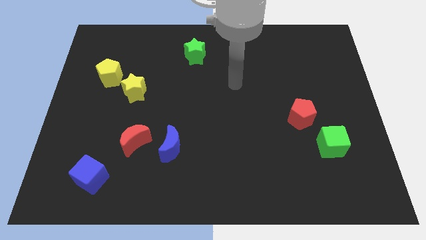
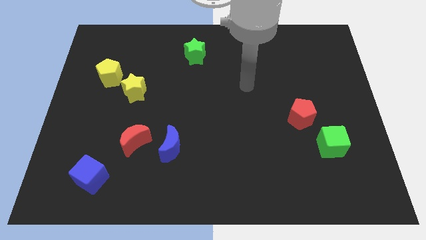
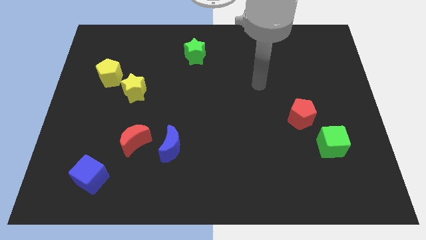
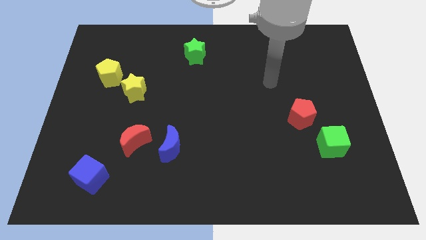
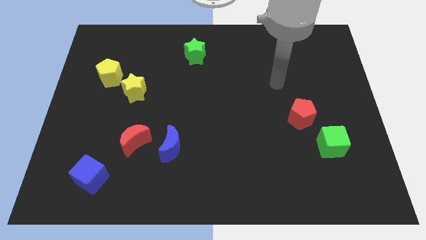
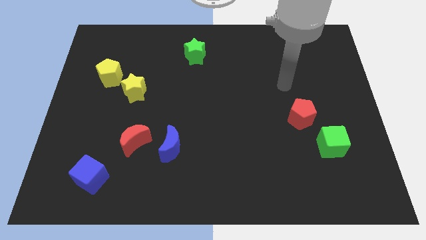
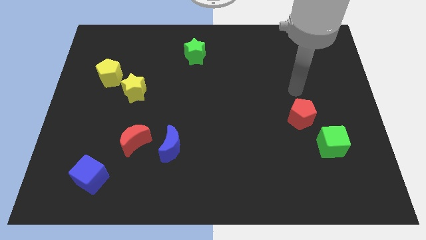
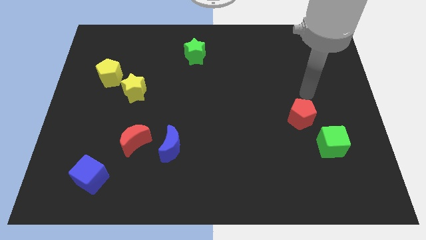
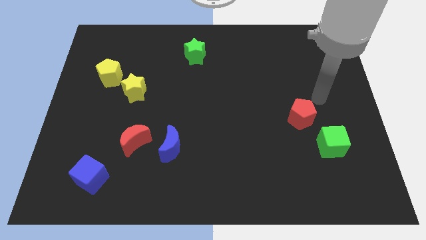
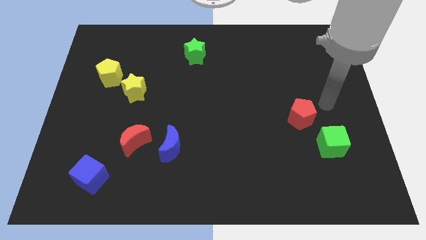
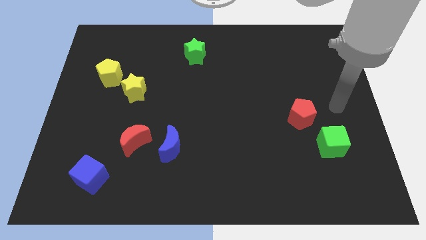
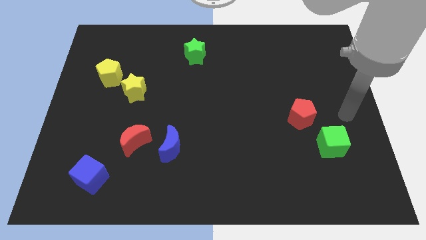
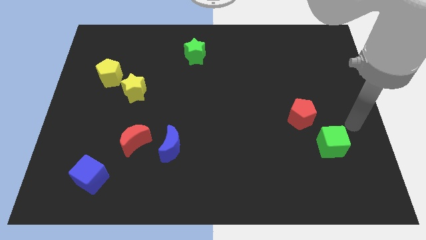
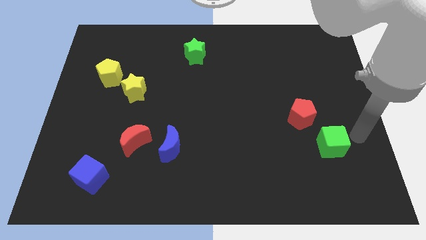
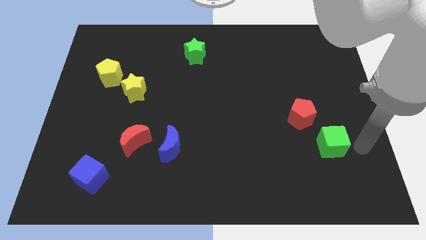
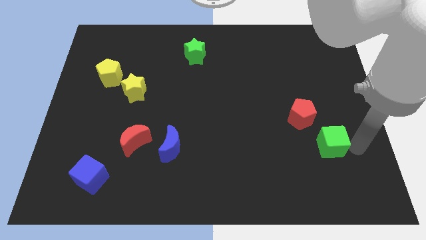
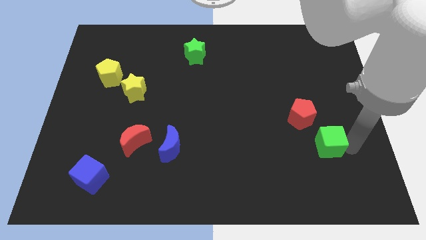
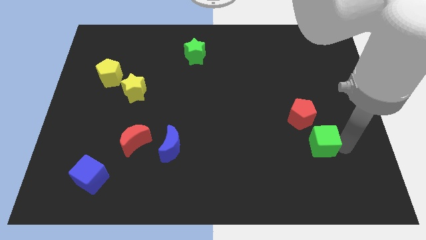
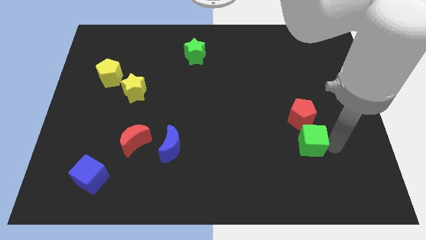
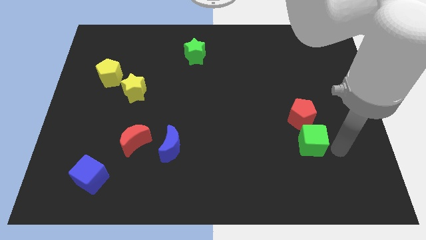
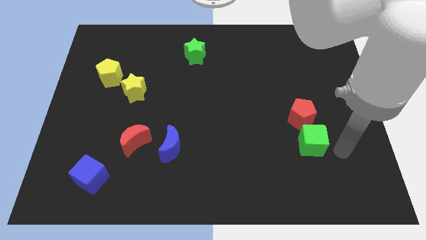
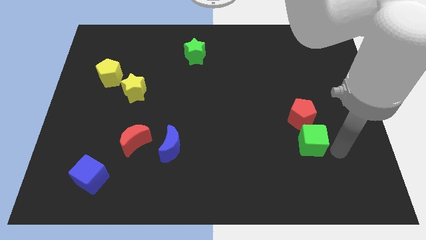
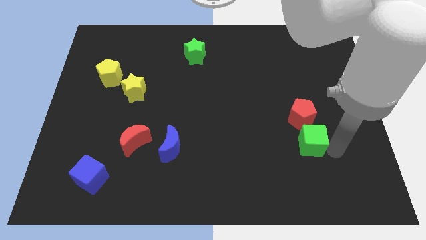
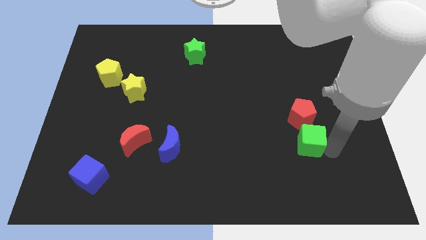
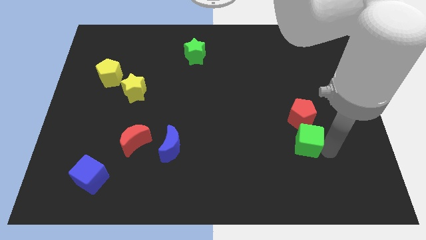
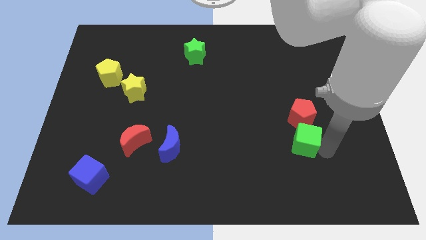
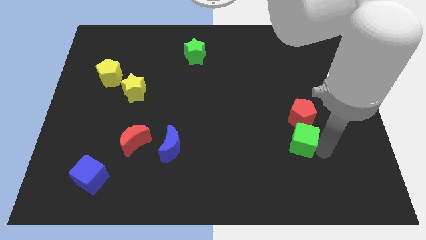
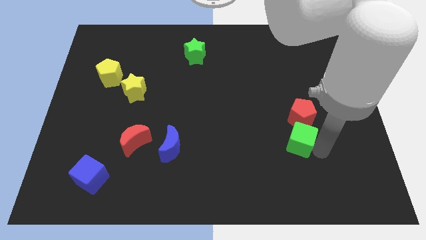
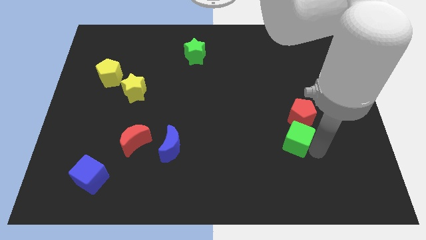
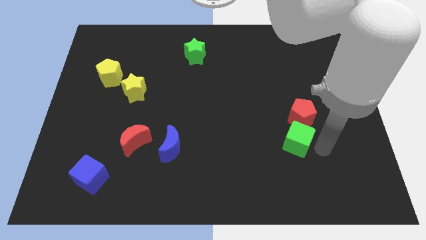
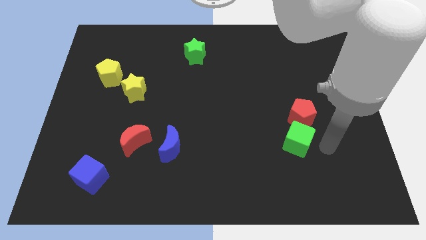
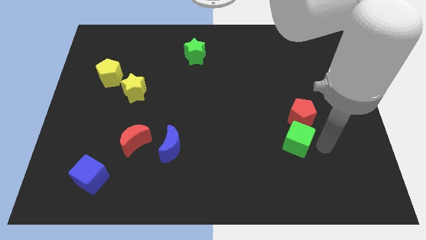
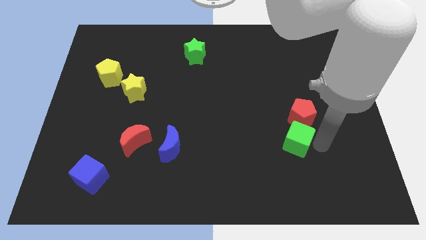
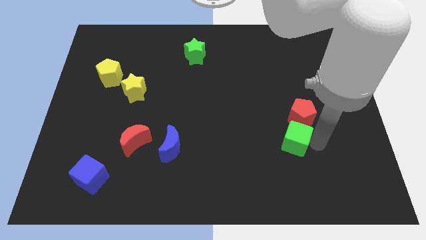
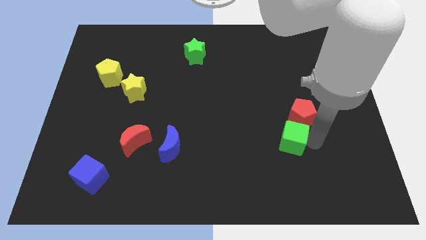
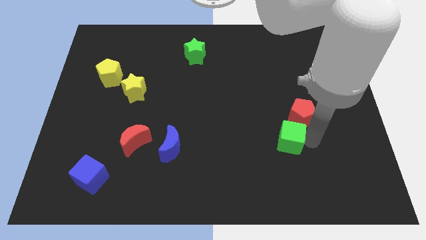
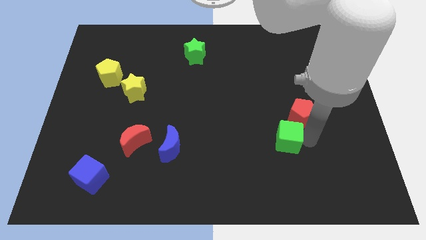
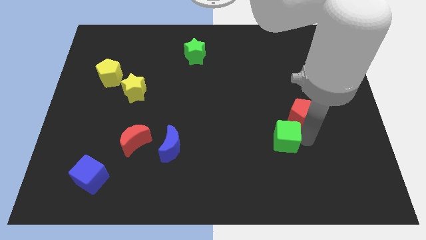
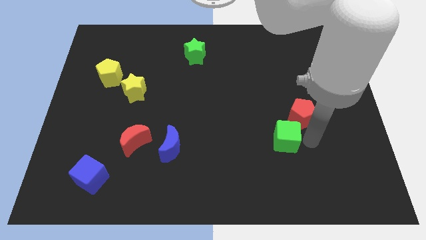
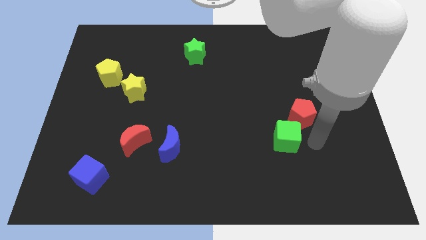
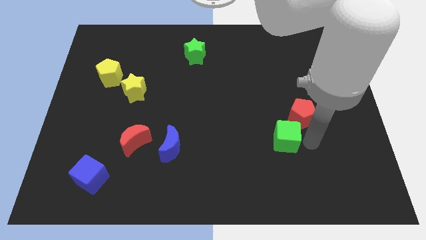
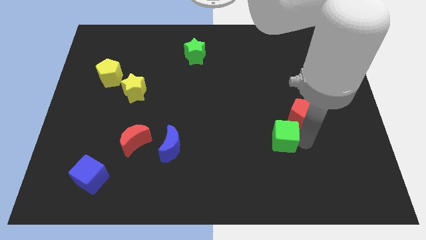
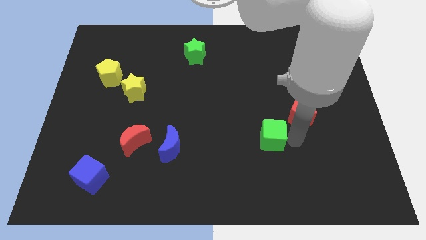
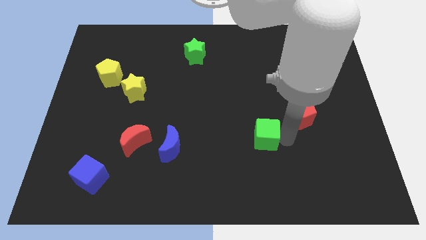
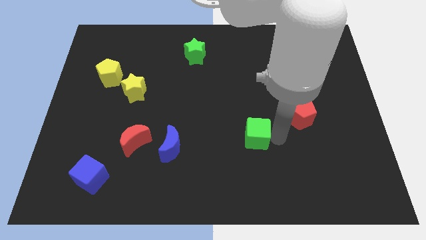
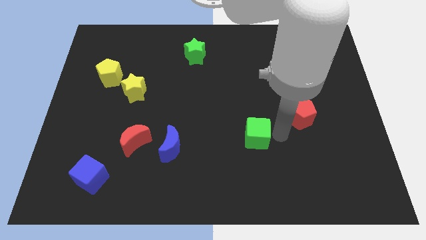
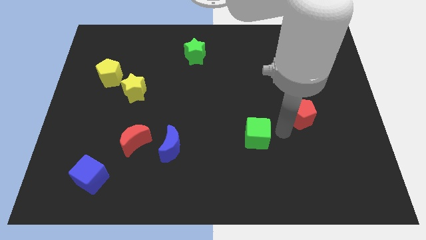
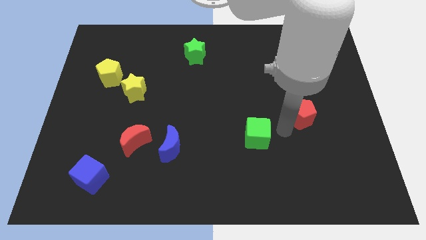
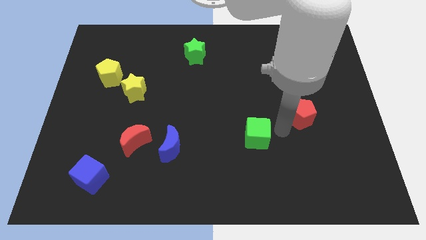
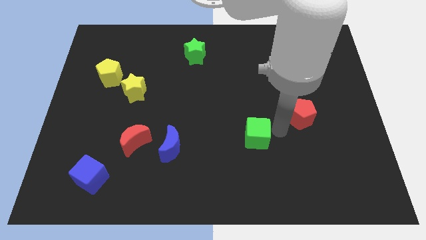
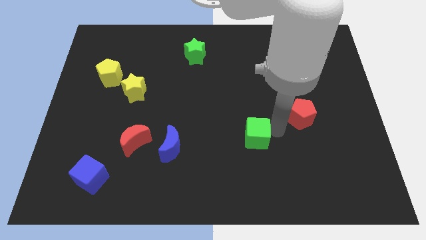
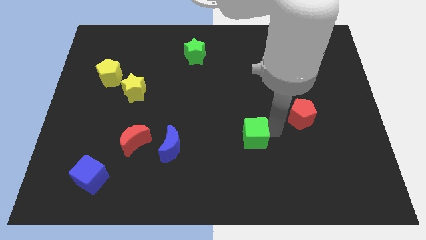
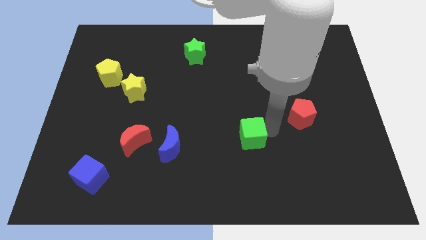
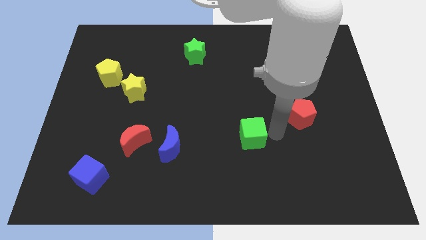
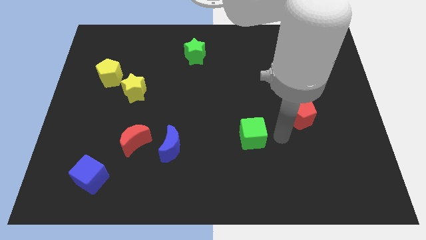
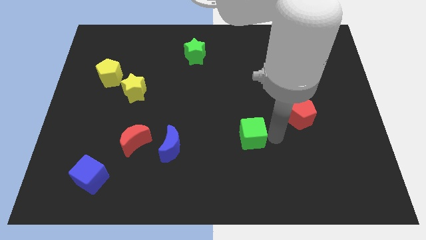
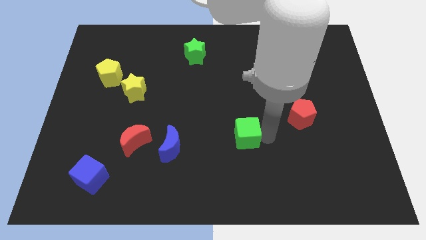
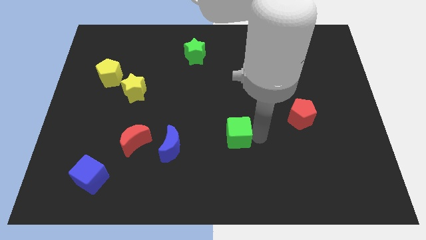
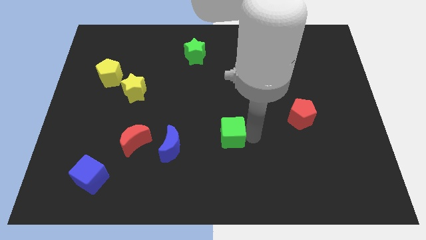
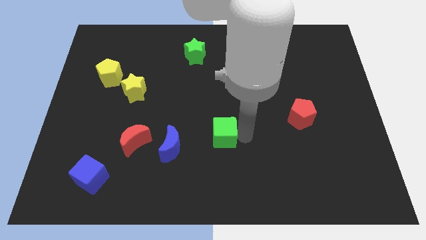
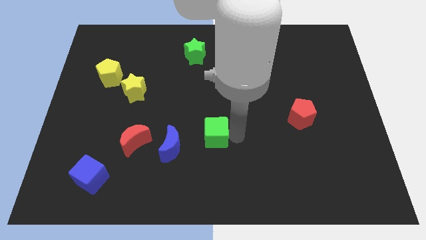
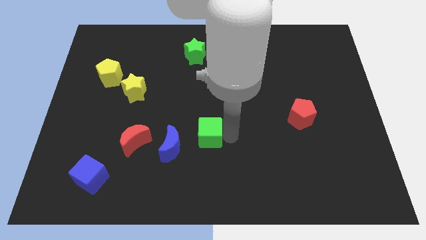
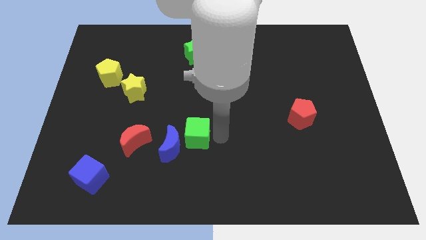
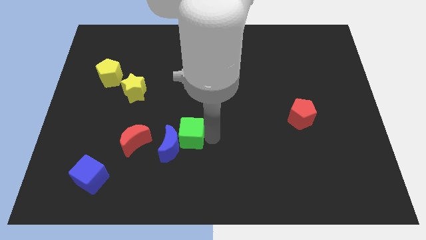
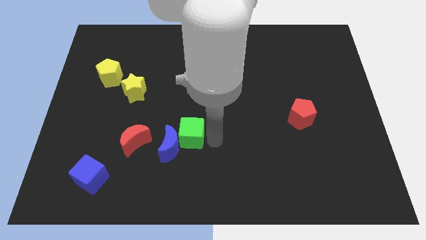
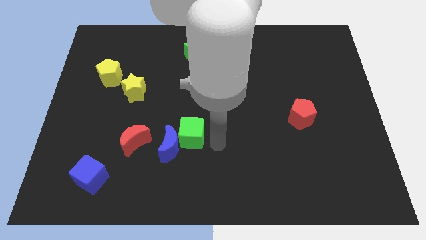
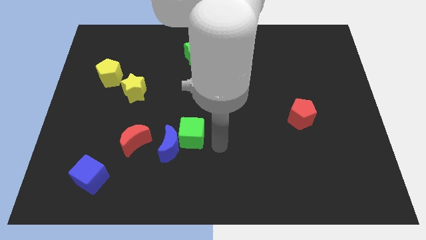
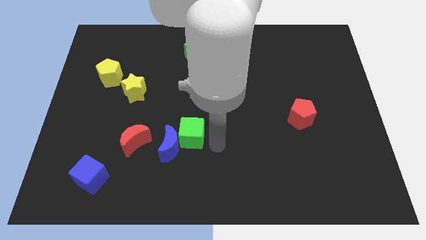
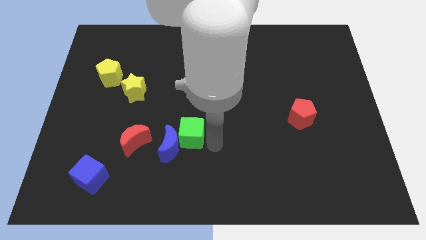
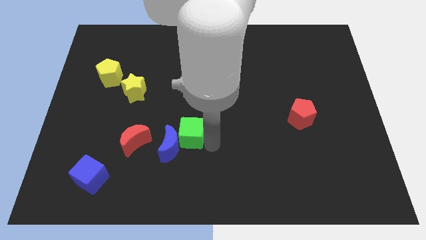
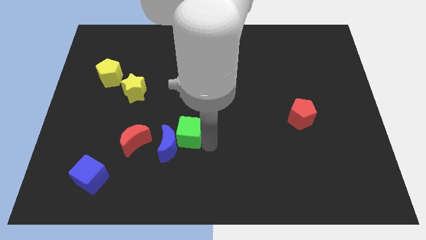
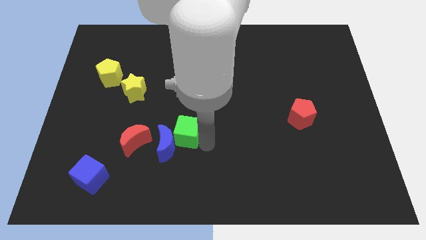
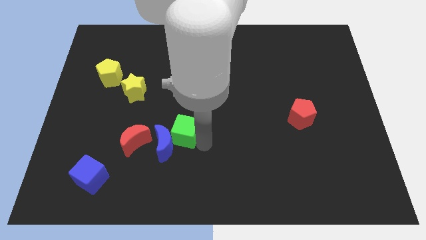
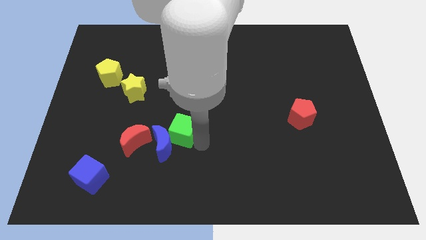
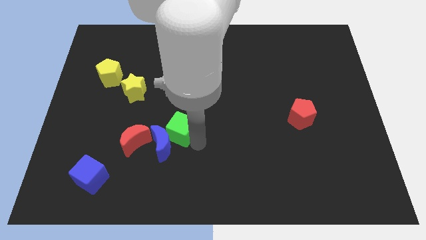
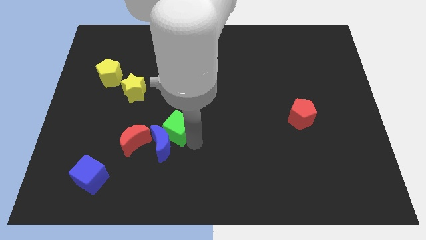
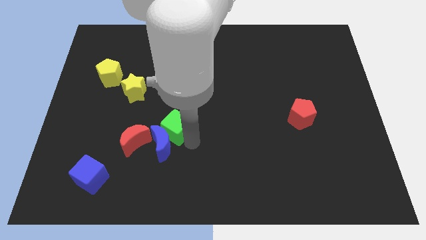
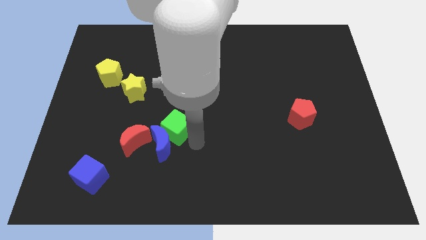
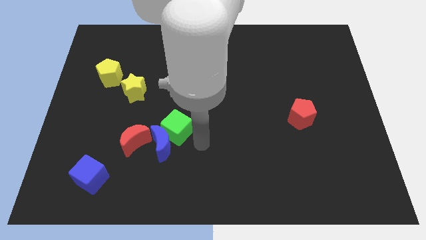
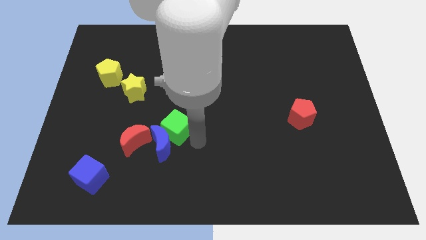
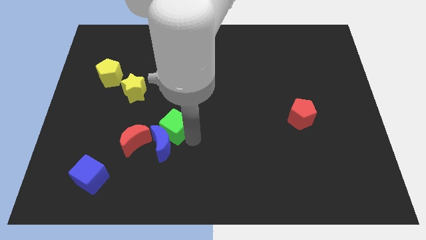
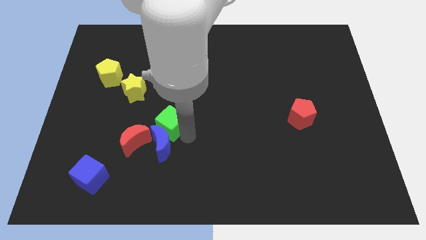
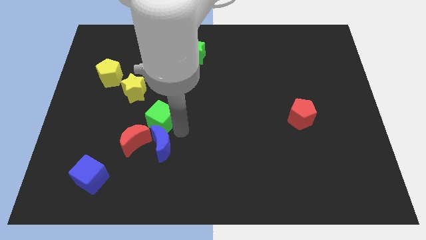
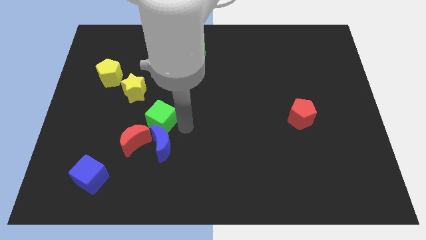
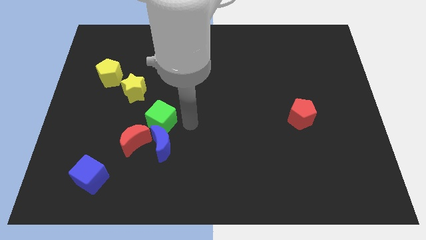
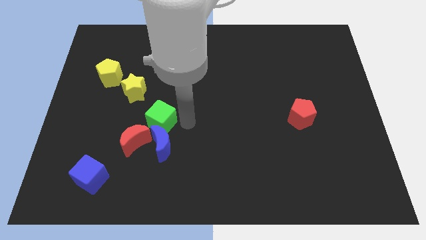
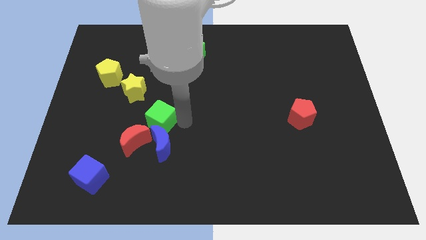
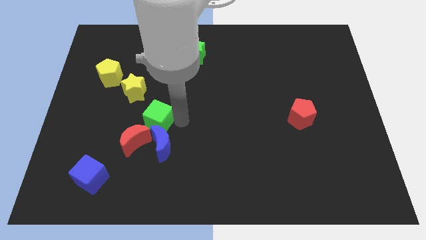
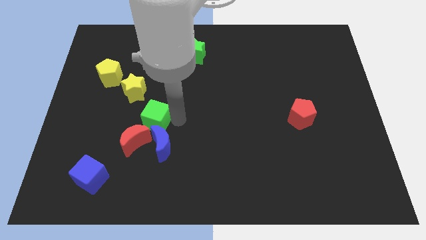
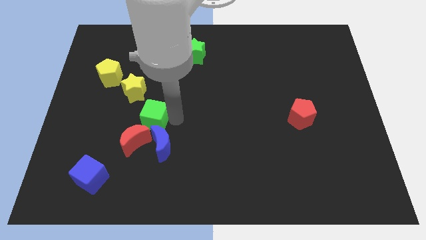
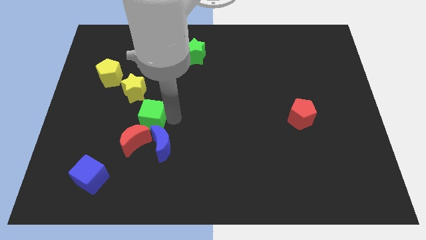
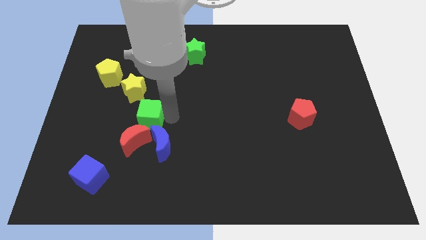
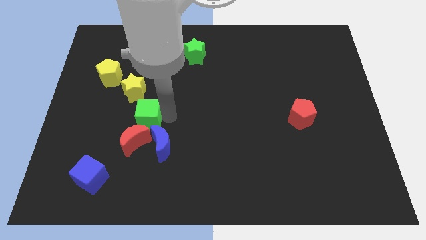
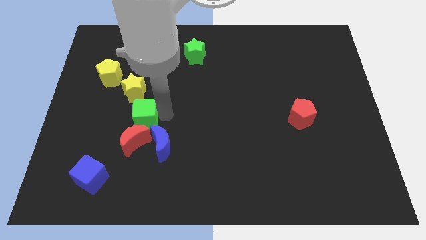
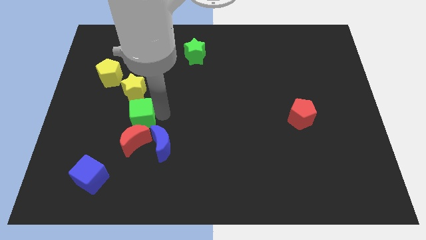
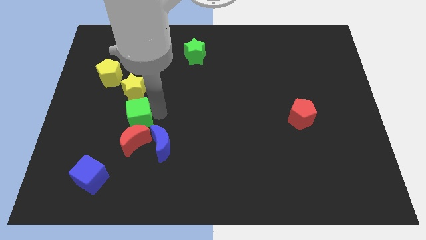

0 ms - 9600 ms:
put the green cube to the top left of the red moon
